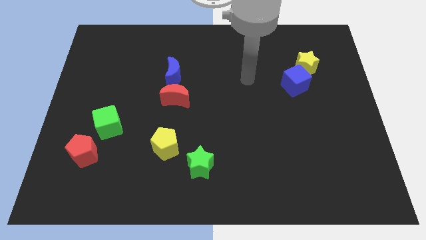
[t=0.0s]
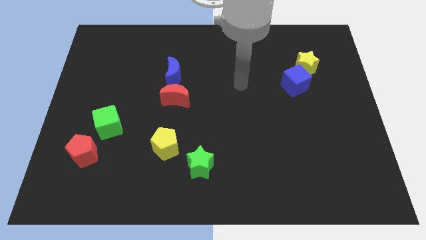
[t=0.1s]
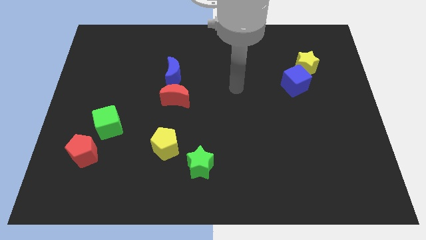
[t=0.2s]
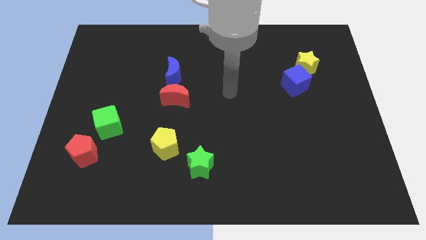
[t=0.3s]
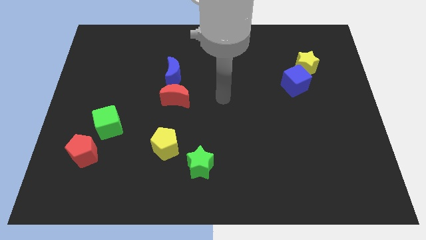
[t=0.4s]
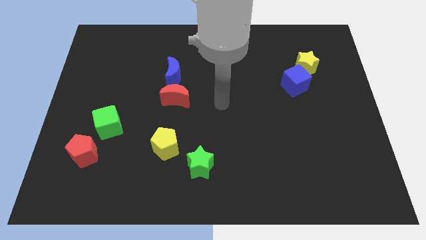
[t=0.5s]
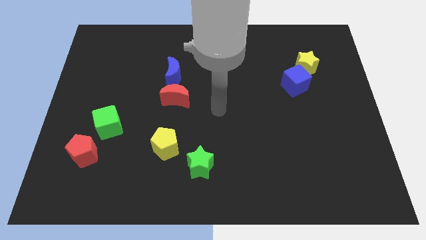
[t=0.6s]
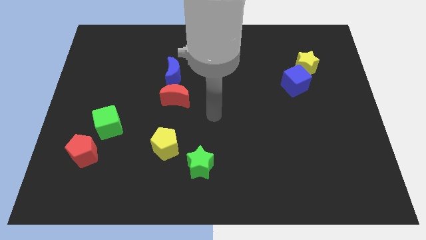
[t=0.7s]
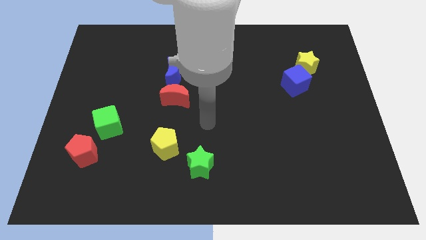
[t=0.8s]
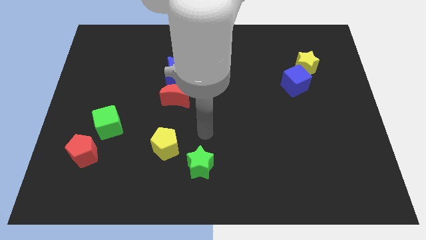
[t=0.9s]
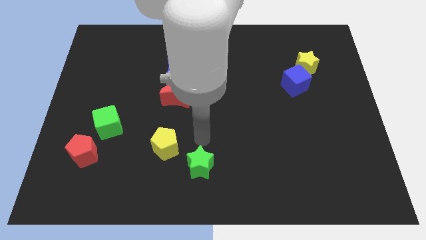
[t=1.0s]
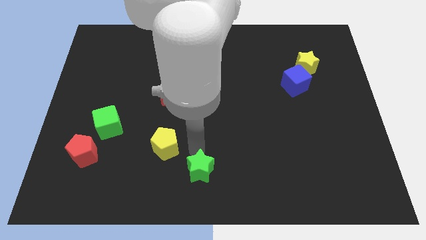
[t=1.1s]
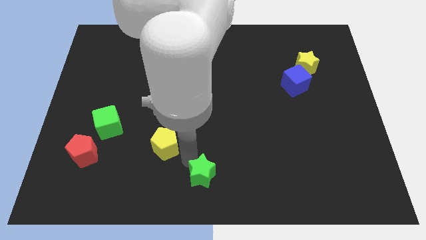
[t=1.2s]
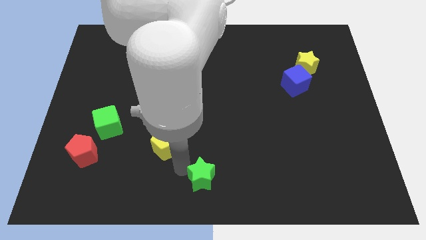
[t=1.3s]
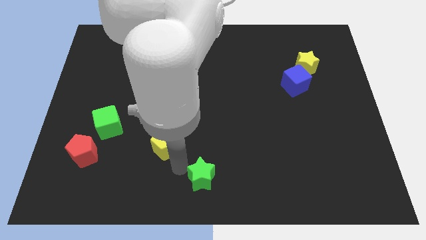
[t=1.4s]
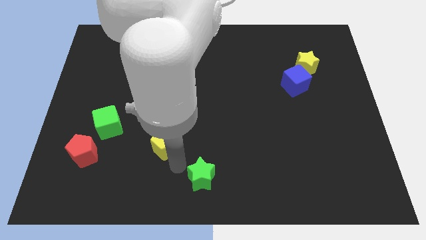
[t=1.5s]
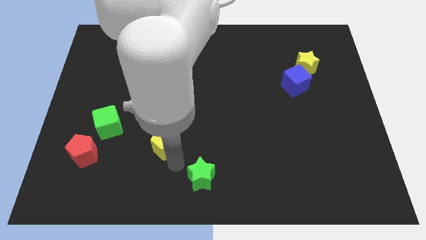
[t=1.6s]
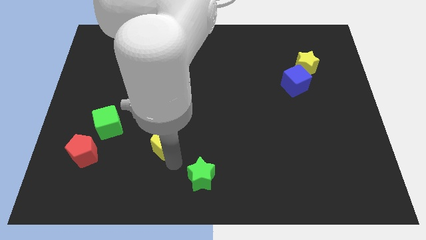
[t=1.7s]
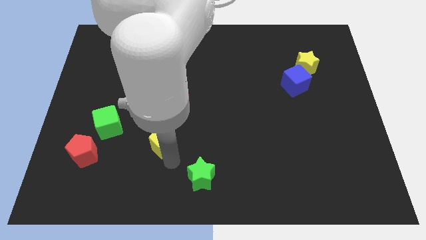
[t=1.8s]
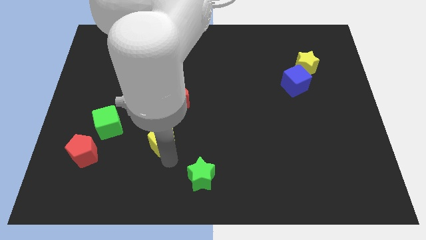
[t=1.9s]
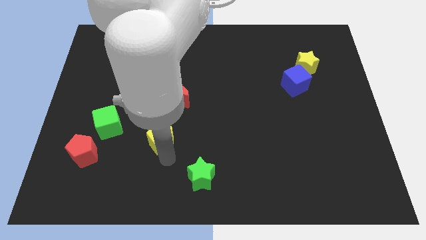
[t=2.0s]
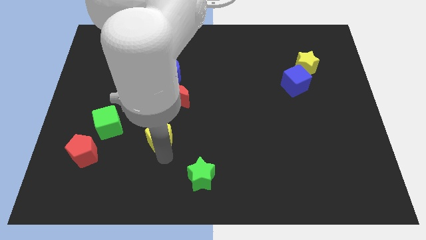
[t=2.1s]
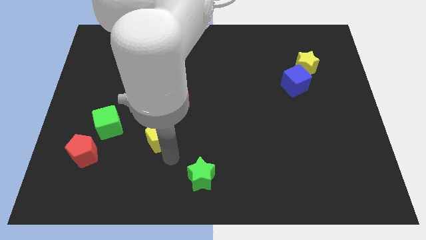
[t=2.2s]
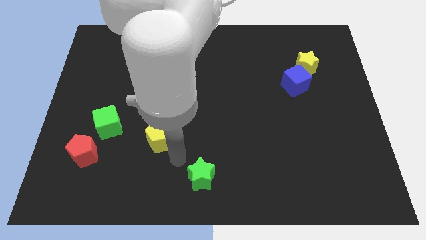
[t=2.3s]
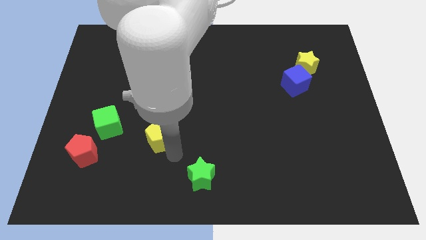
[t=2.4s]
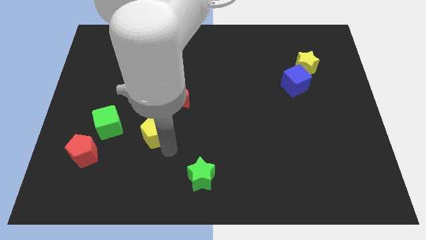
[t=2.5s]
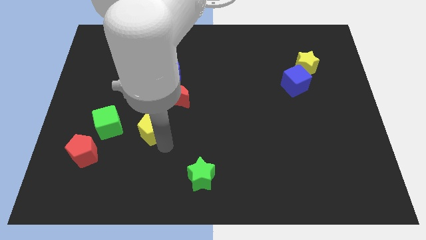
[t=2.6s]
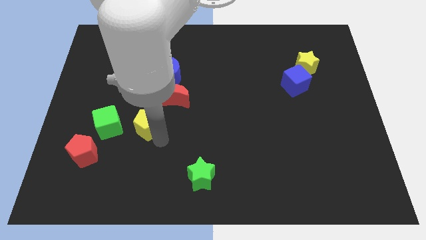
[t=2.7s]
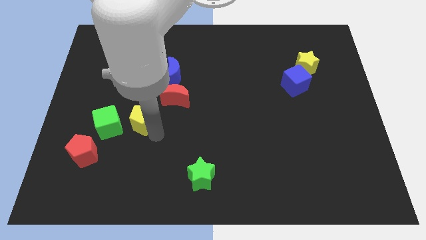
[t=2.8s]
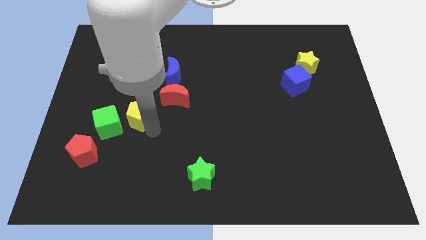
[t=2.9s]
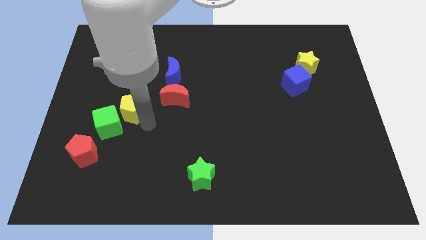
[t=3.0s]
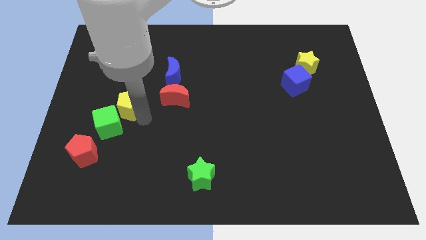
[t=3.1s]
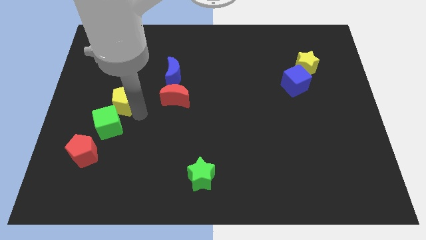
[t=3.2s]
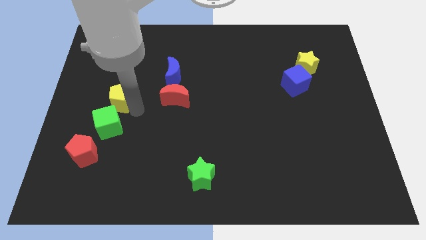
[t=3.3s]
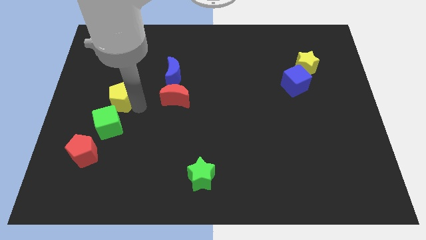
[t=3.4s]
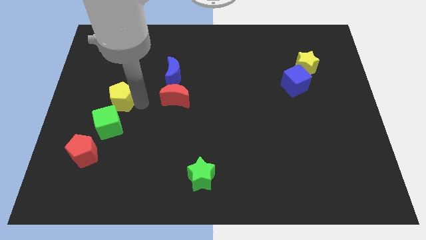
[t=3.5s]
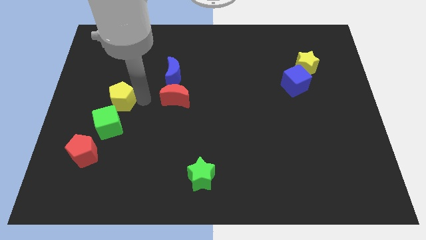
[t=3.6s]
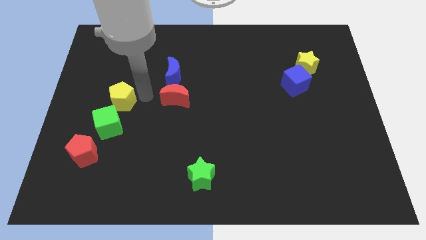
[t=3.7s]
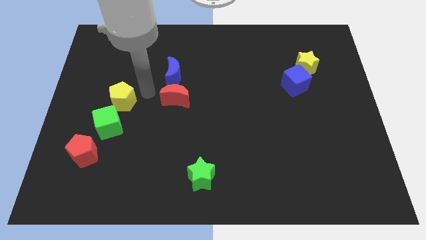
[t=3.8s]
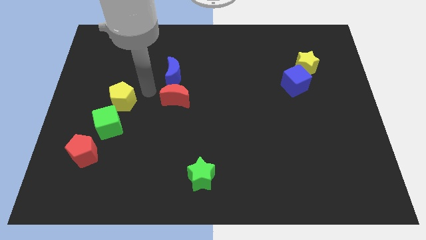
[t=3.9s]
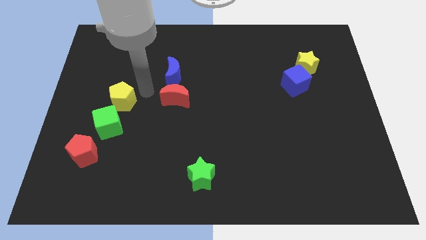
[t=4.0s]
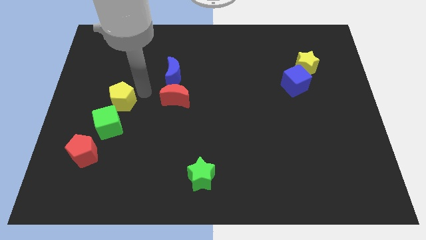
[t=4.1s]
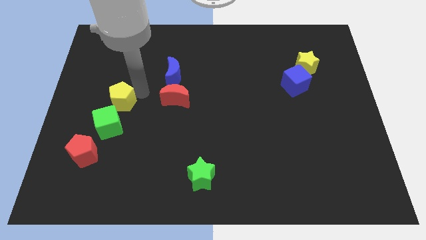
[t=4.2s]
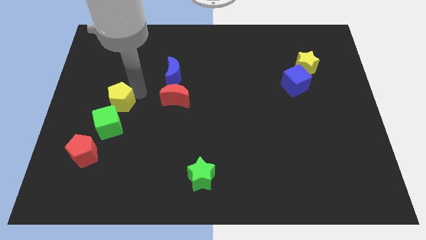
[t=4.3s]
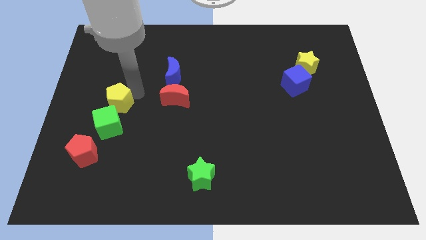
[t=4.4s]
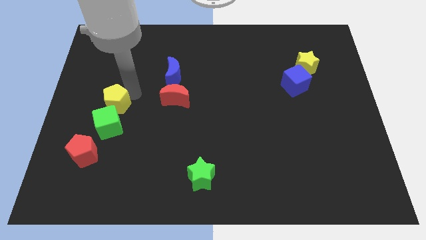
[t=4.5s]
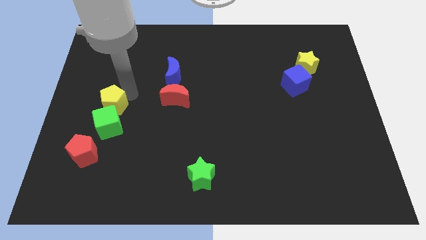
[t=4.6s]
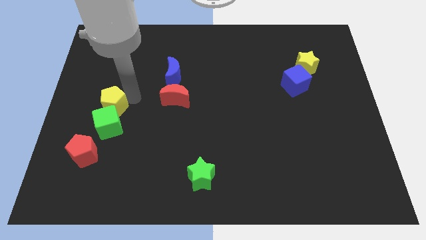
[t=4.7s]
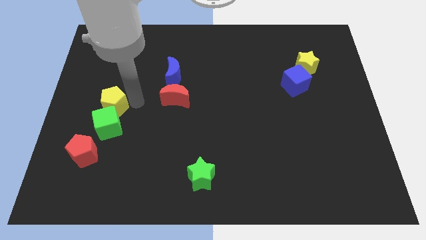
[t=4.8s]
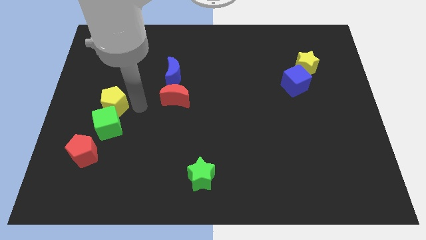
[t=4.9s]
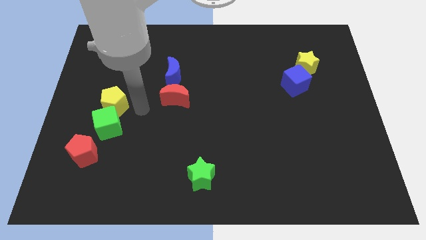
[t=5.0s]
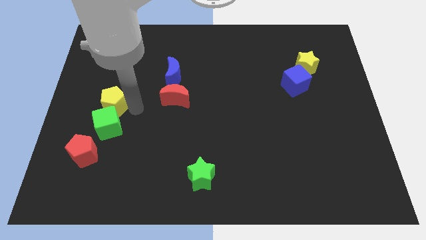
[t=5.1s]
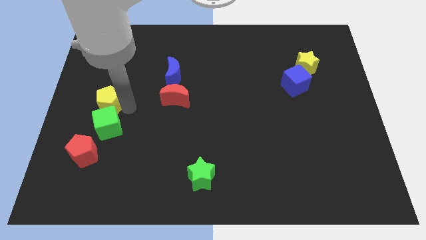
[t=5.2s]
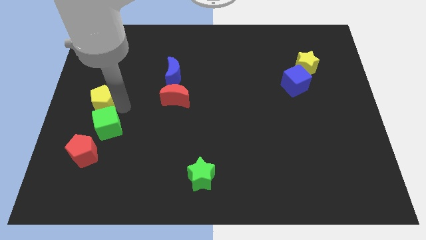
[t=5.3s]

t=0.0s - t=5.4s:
slide the yellow pentagon to the left side

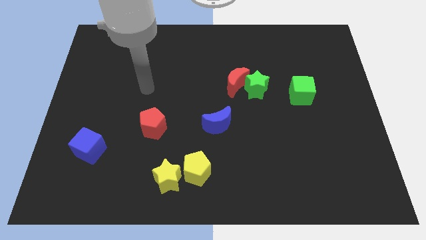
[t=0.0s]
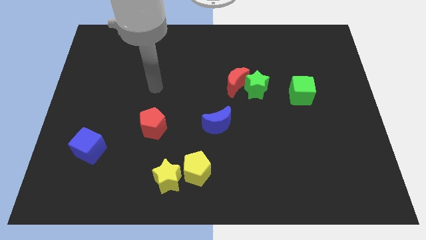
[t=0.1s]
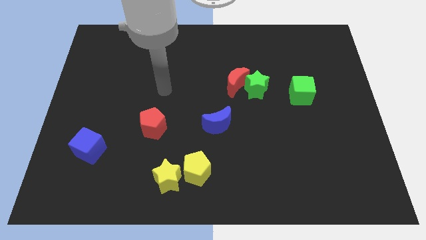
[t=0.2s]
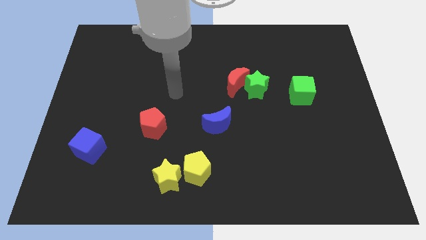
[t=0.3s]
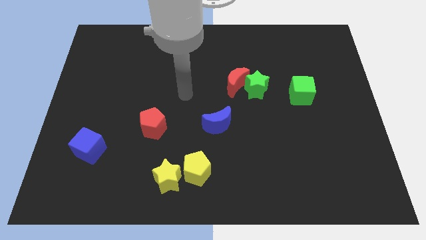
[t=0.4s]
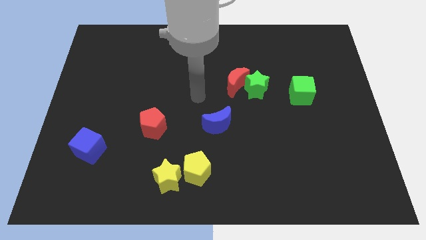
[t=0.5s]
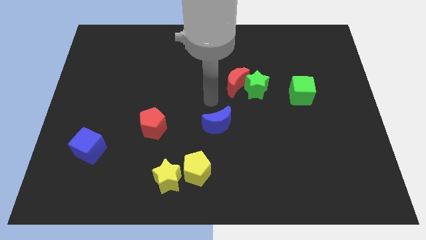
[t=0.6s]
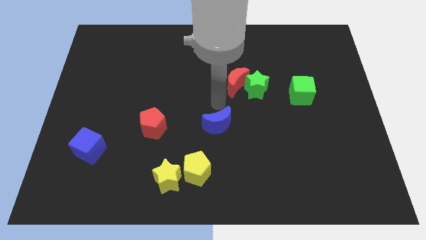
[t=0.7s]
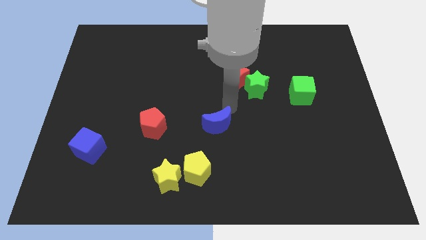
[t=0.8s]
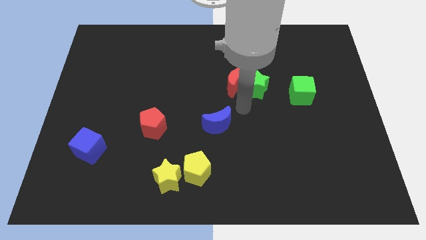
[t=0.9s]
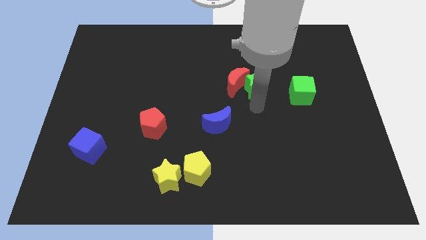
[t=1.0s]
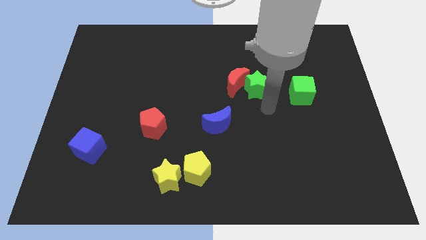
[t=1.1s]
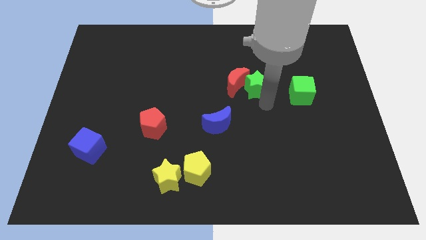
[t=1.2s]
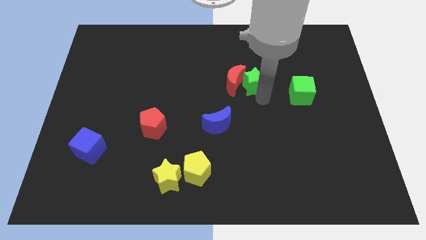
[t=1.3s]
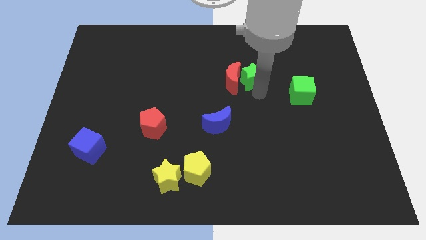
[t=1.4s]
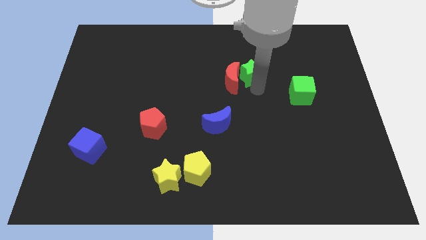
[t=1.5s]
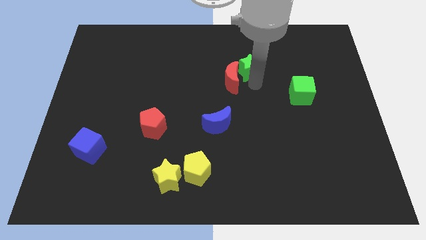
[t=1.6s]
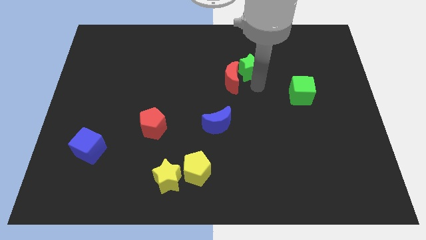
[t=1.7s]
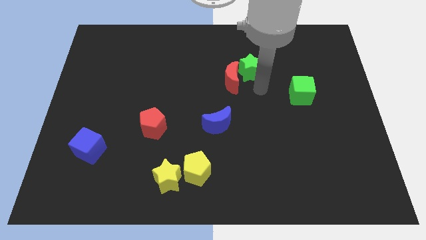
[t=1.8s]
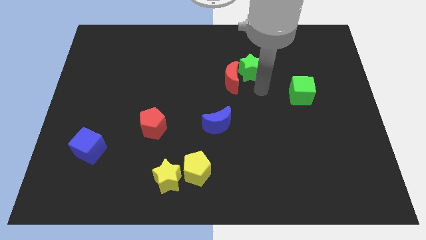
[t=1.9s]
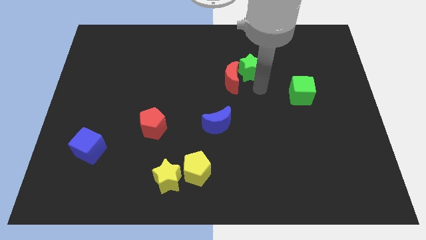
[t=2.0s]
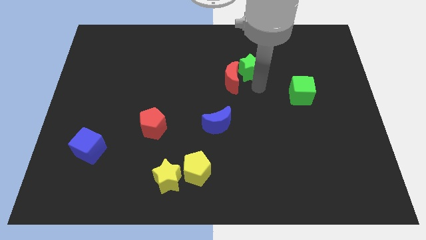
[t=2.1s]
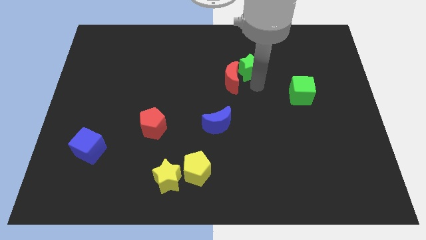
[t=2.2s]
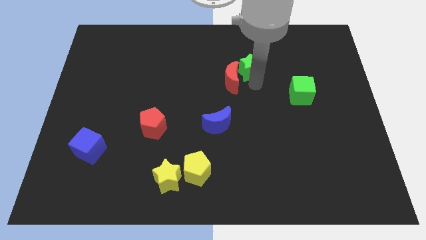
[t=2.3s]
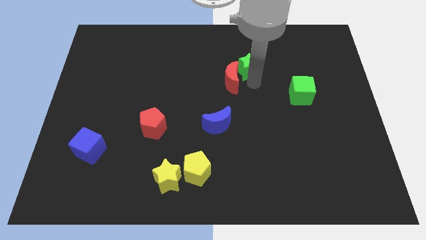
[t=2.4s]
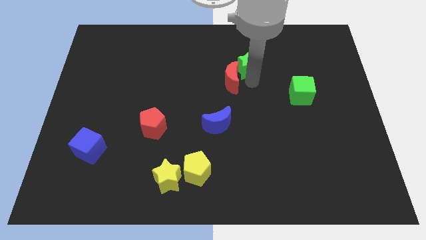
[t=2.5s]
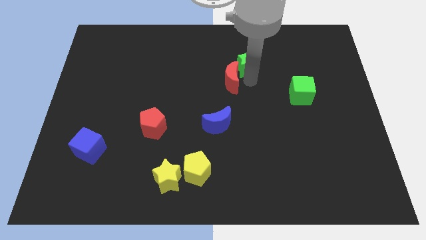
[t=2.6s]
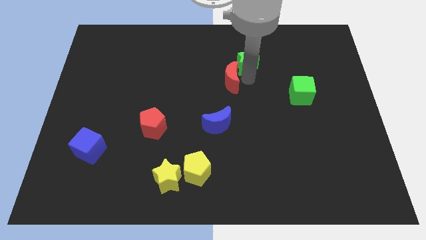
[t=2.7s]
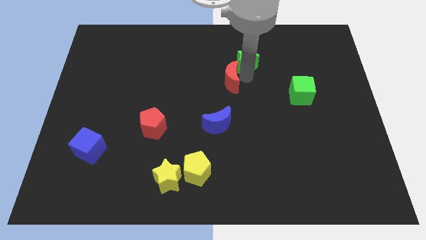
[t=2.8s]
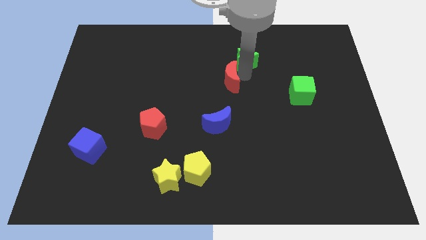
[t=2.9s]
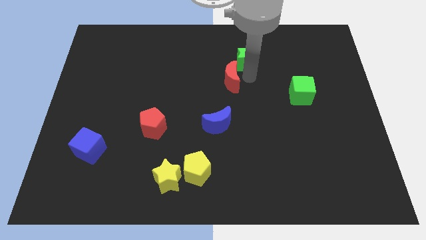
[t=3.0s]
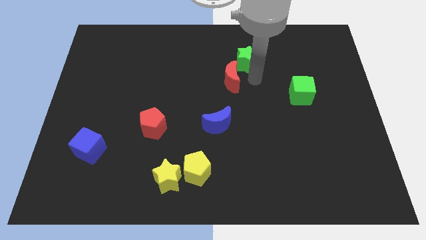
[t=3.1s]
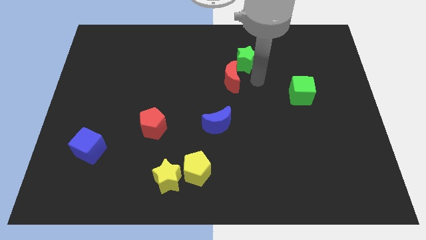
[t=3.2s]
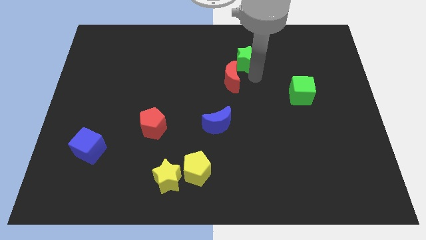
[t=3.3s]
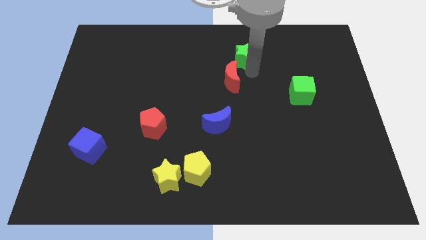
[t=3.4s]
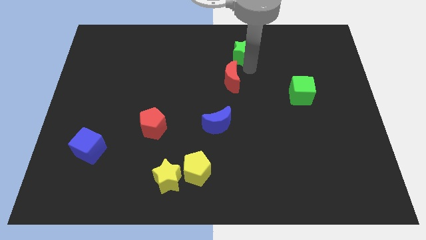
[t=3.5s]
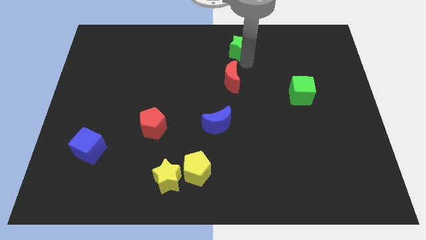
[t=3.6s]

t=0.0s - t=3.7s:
push the green star to the top side
